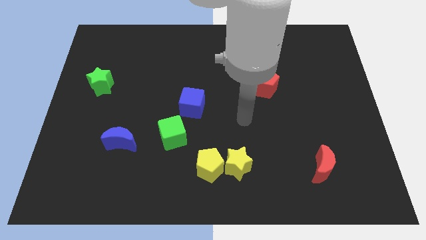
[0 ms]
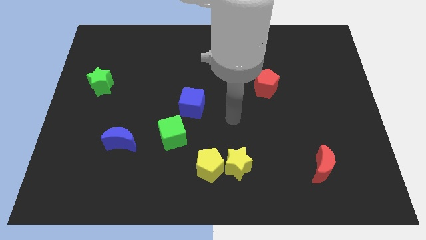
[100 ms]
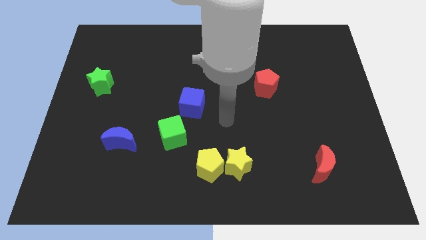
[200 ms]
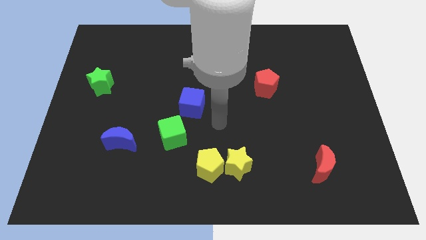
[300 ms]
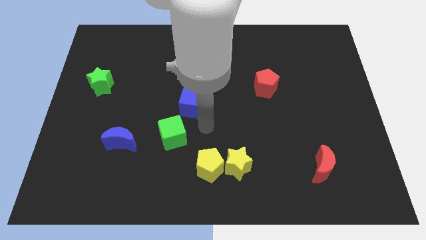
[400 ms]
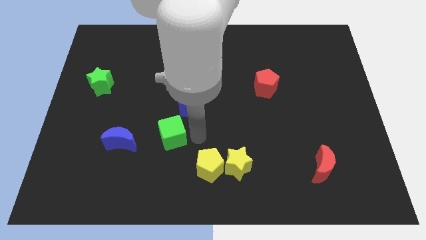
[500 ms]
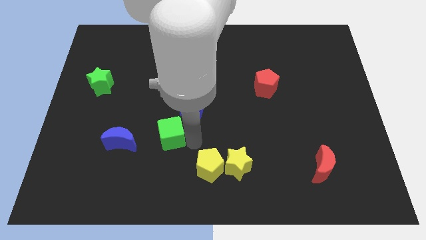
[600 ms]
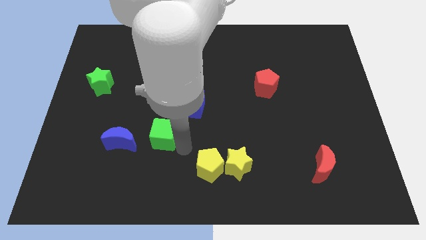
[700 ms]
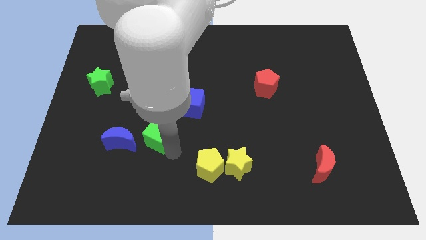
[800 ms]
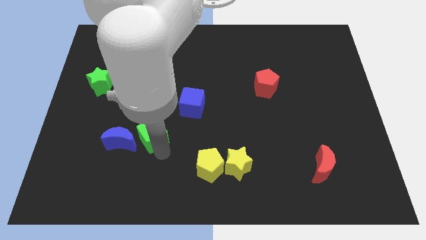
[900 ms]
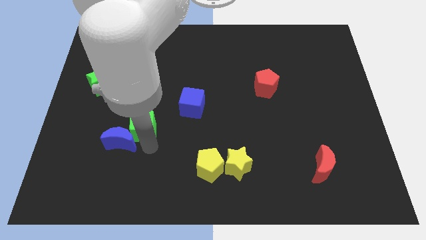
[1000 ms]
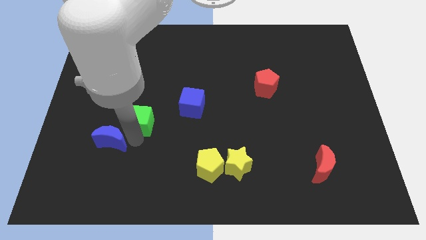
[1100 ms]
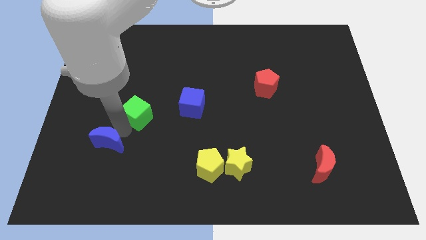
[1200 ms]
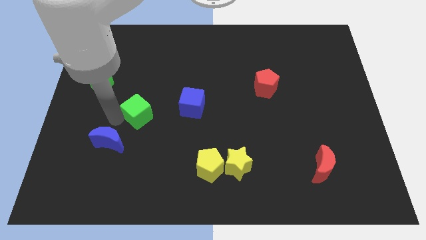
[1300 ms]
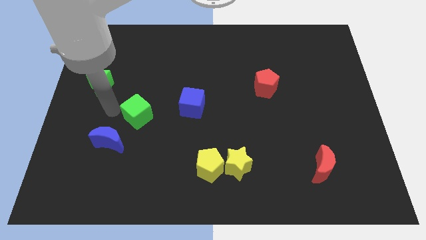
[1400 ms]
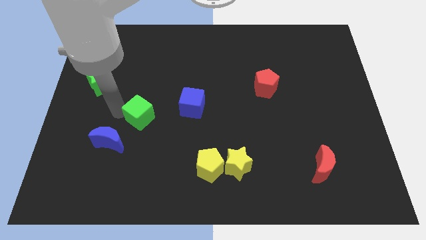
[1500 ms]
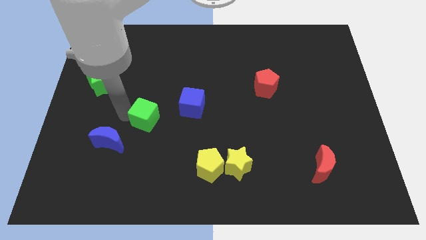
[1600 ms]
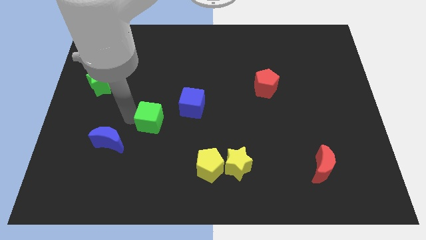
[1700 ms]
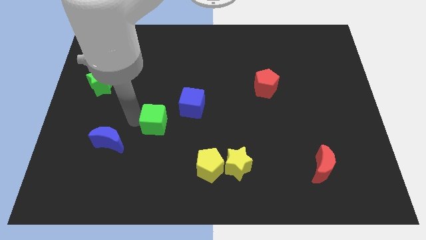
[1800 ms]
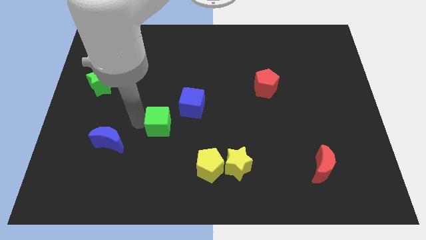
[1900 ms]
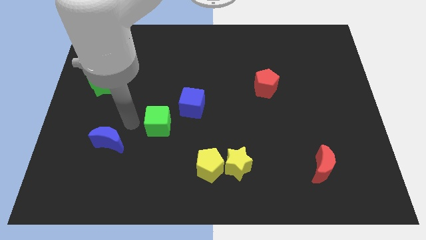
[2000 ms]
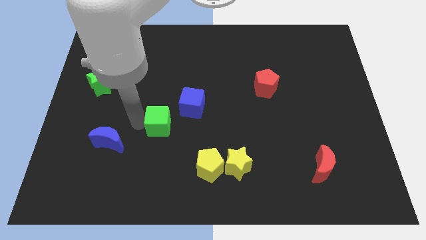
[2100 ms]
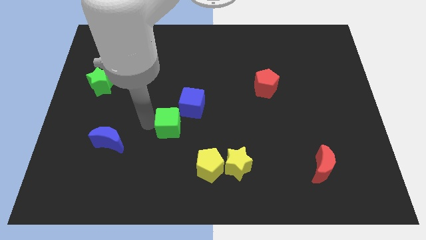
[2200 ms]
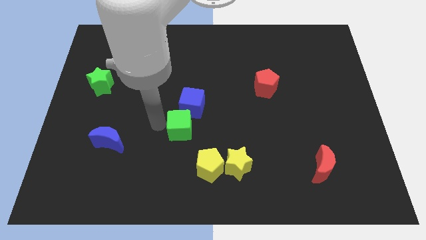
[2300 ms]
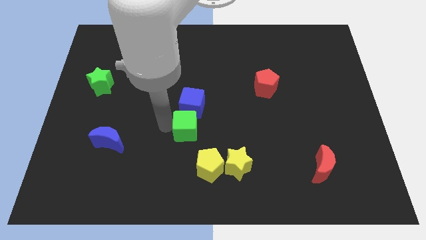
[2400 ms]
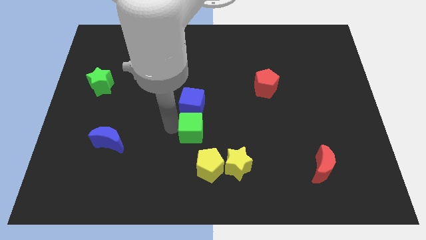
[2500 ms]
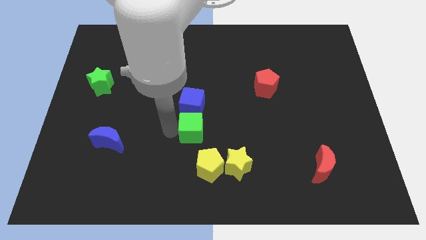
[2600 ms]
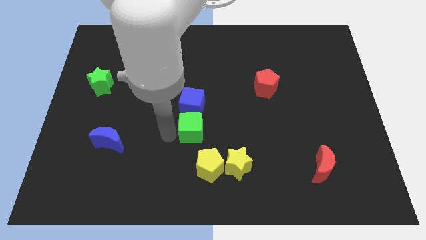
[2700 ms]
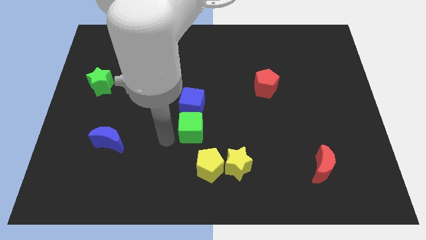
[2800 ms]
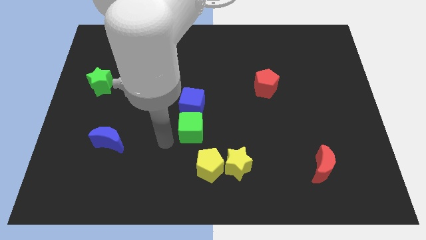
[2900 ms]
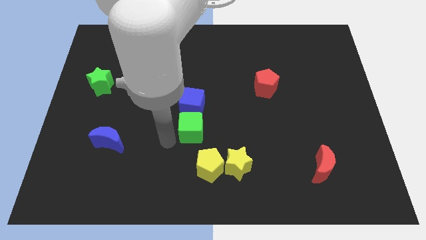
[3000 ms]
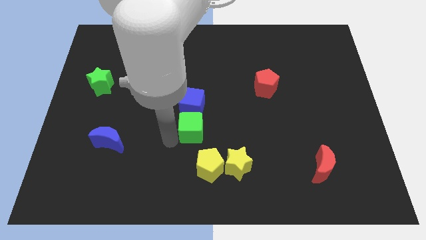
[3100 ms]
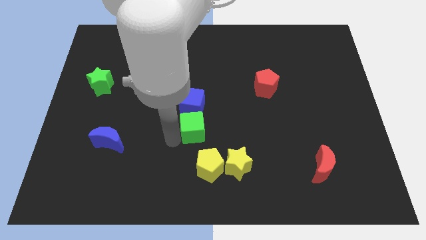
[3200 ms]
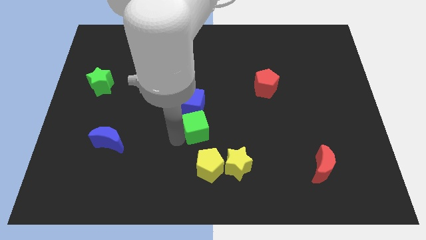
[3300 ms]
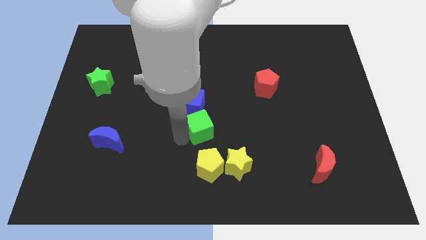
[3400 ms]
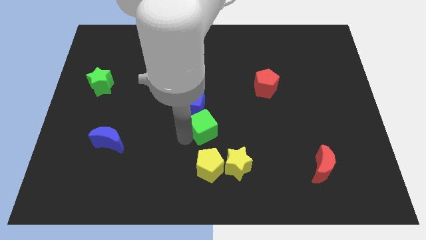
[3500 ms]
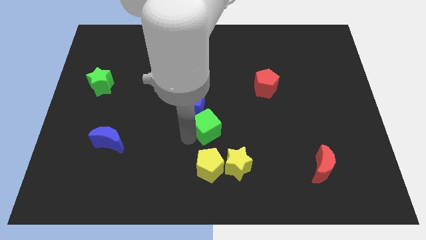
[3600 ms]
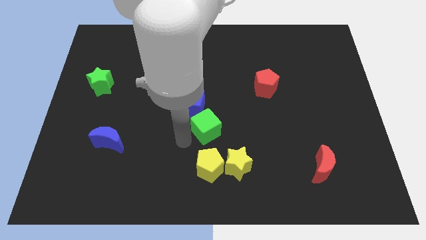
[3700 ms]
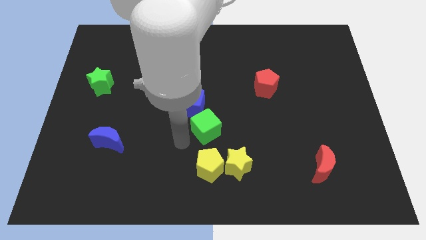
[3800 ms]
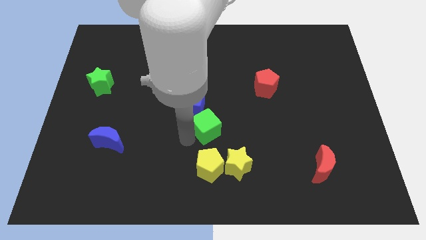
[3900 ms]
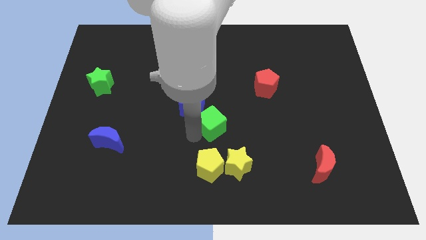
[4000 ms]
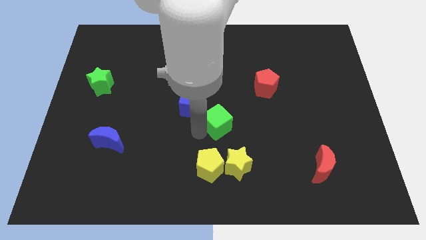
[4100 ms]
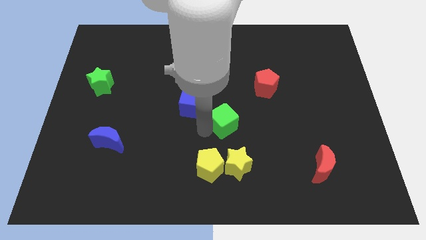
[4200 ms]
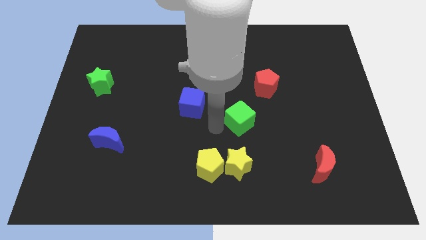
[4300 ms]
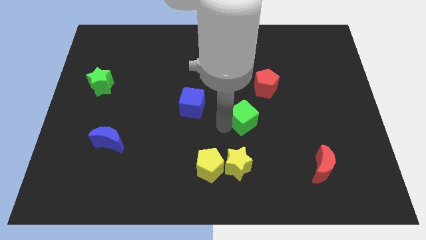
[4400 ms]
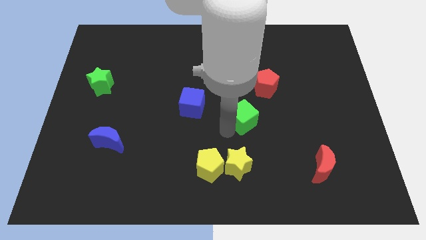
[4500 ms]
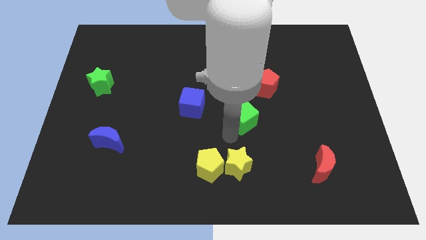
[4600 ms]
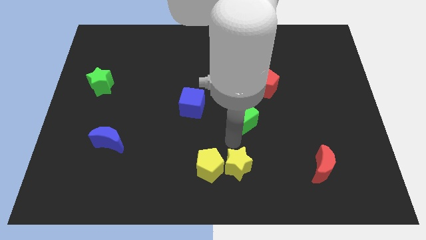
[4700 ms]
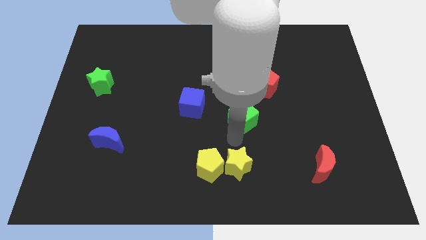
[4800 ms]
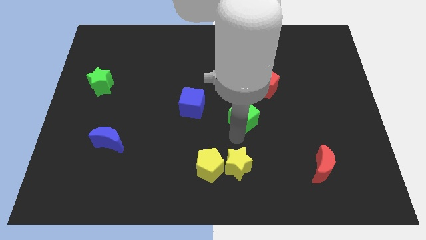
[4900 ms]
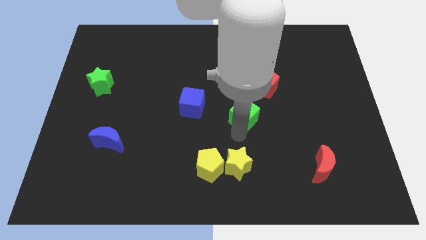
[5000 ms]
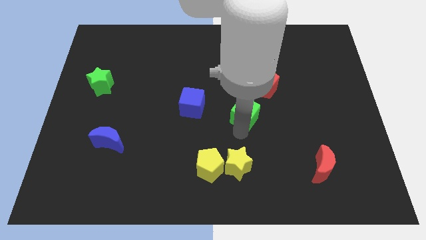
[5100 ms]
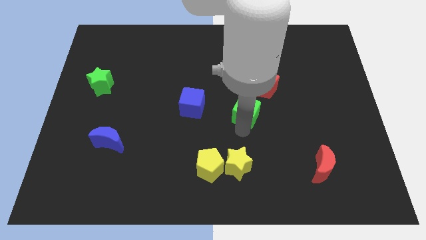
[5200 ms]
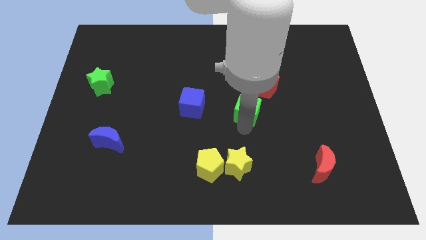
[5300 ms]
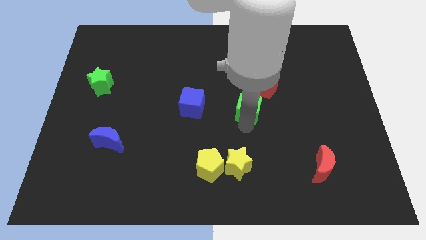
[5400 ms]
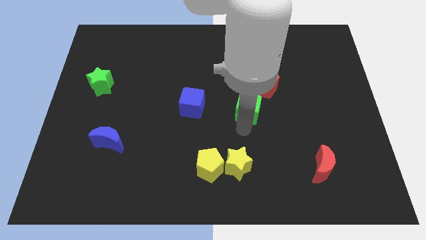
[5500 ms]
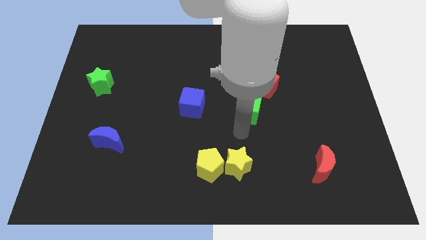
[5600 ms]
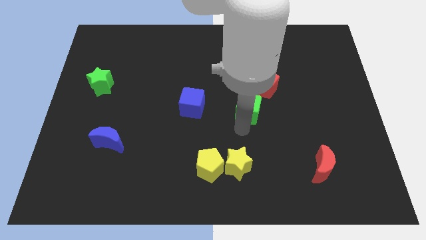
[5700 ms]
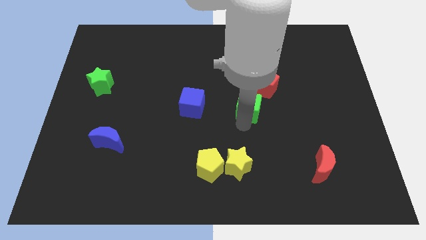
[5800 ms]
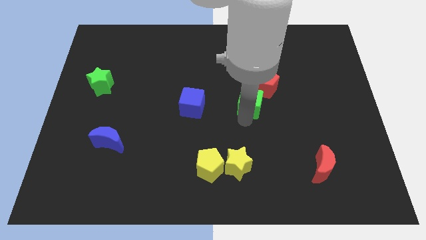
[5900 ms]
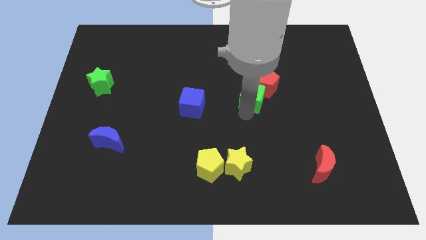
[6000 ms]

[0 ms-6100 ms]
put the green cube to the red pentagon

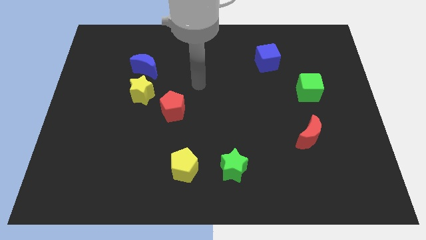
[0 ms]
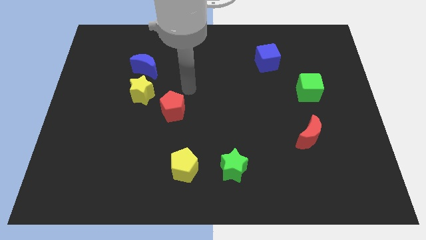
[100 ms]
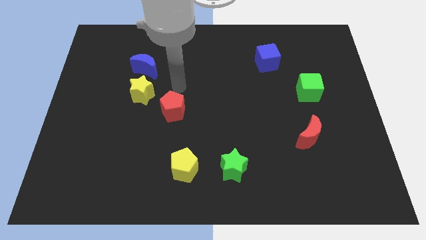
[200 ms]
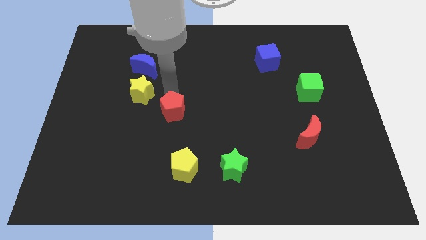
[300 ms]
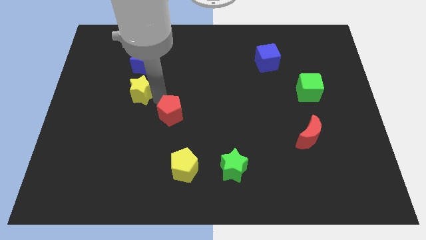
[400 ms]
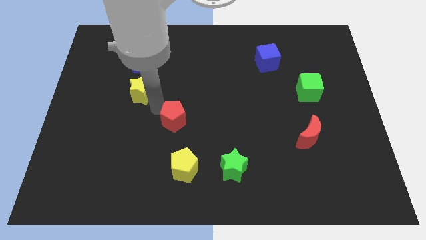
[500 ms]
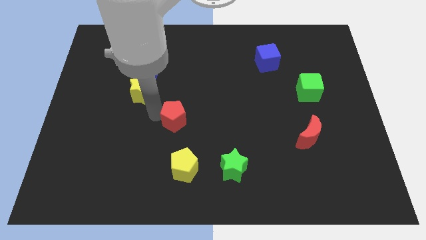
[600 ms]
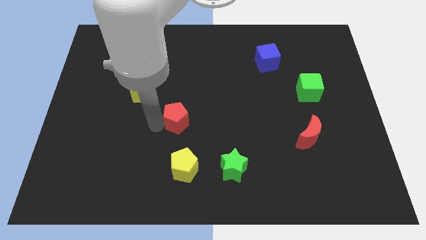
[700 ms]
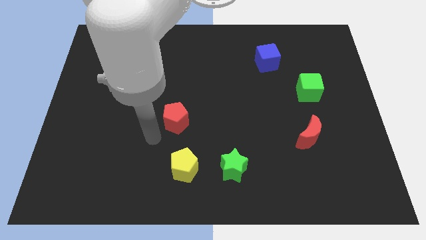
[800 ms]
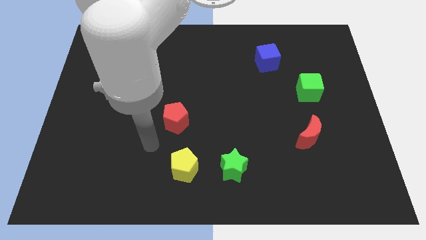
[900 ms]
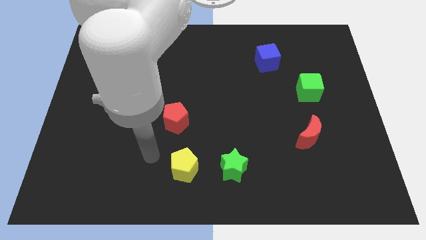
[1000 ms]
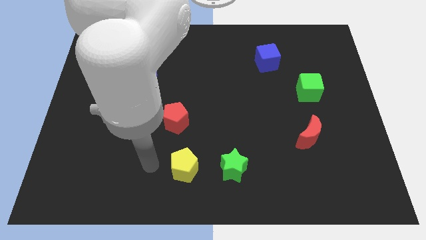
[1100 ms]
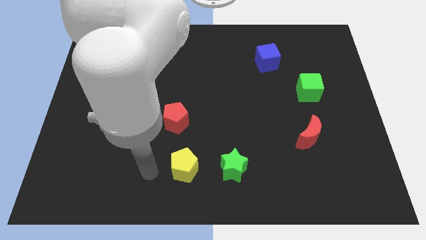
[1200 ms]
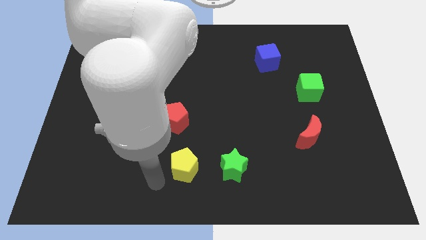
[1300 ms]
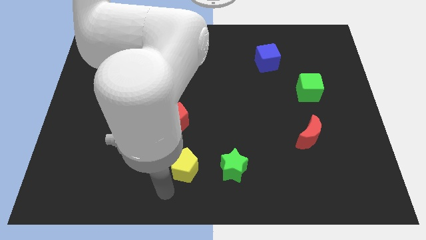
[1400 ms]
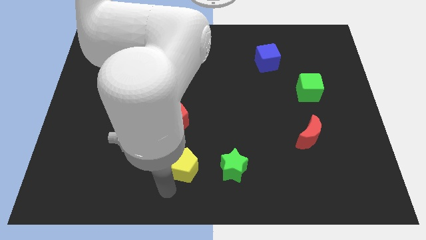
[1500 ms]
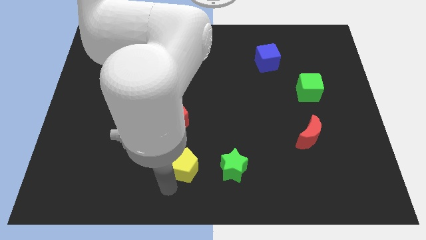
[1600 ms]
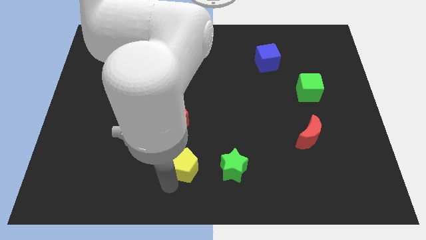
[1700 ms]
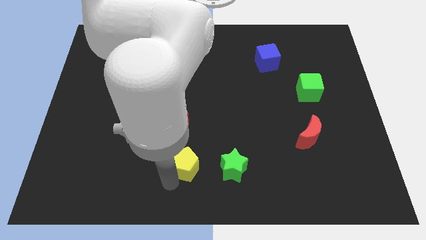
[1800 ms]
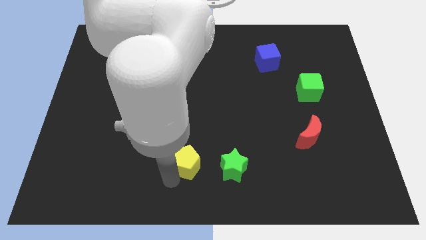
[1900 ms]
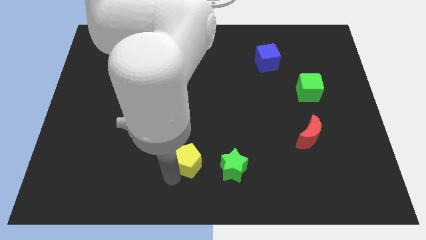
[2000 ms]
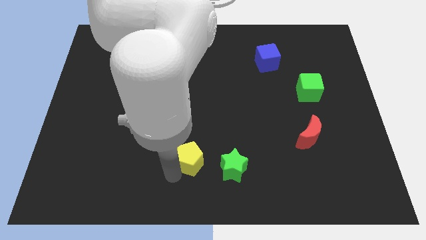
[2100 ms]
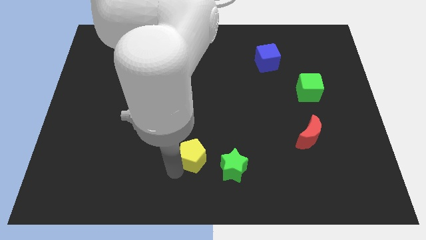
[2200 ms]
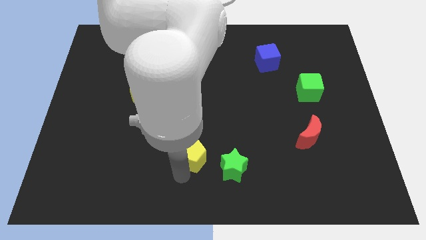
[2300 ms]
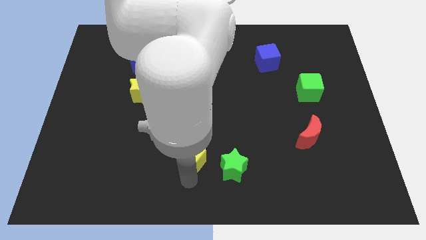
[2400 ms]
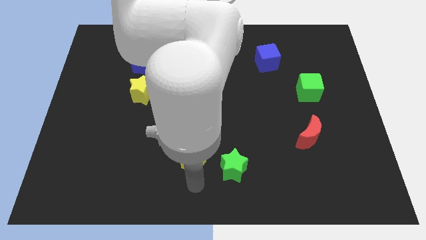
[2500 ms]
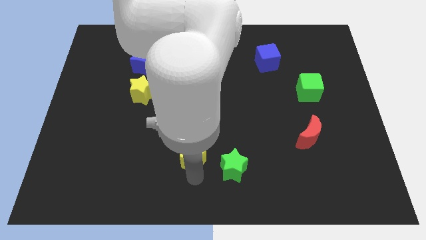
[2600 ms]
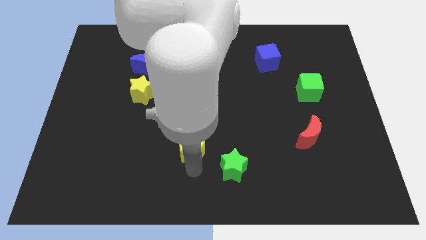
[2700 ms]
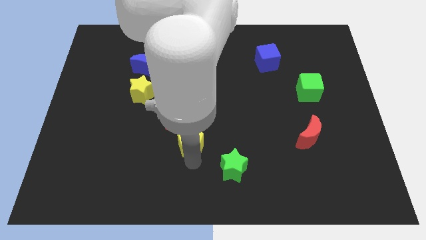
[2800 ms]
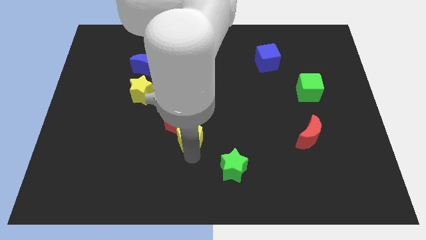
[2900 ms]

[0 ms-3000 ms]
slide the yellow pentagon close to the red pentagon
